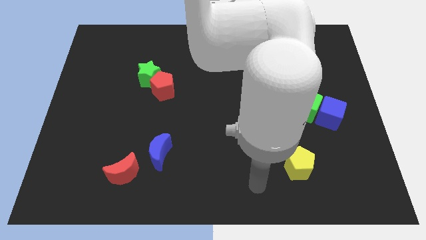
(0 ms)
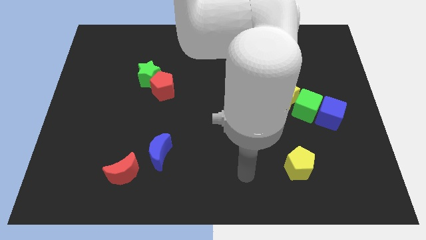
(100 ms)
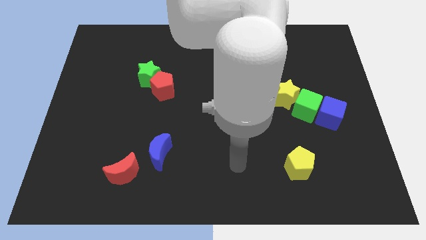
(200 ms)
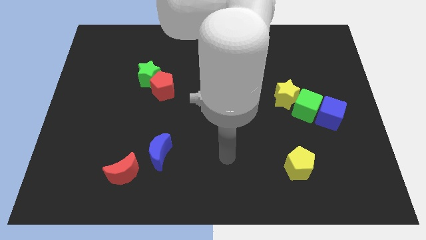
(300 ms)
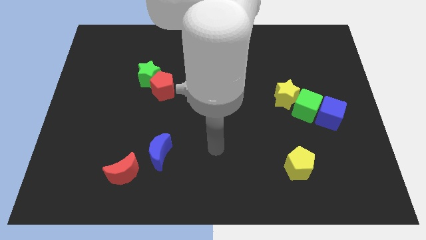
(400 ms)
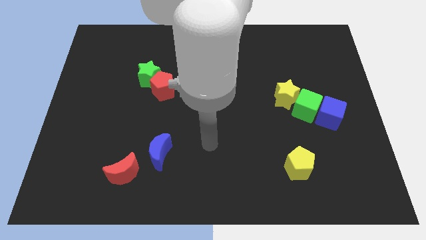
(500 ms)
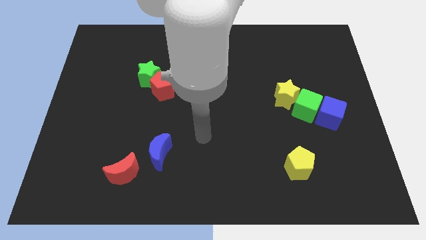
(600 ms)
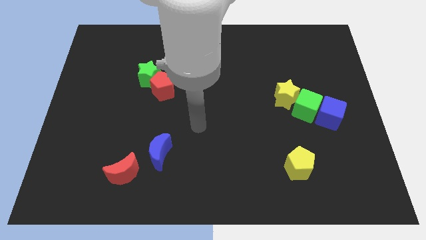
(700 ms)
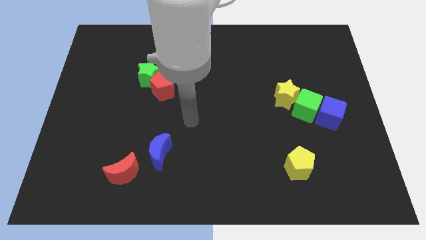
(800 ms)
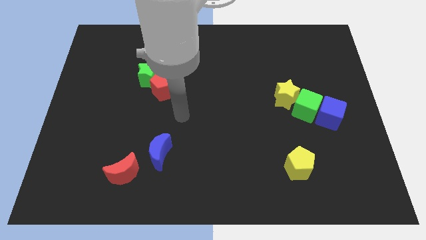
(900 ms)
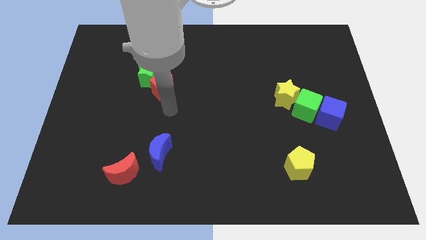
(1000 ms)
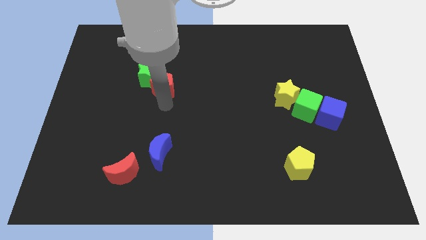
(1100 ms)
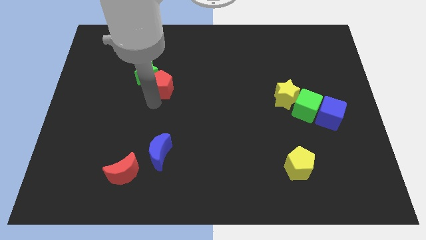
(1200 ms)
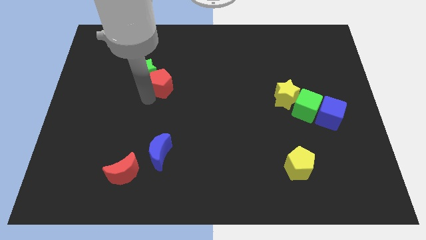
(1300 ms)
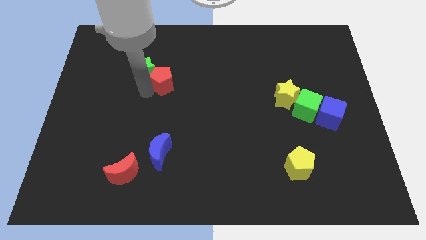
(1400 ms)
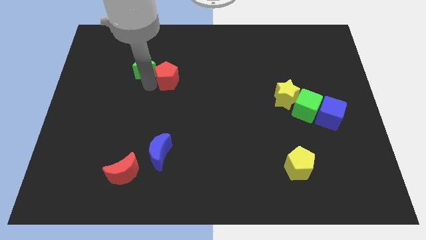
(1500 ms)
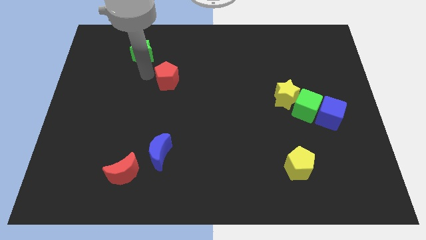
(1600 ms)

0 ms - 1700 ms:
move the red pentagon away from the green star

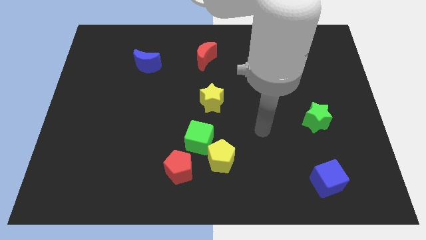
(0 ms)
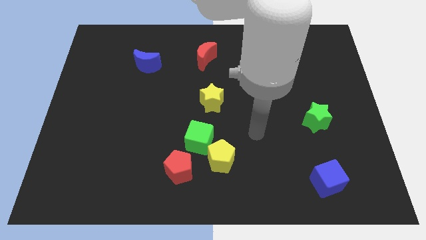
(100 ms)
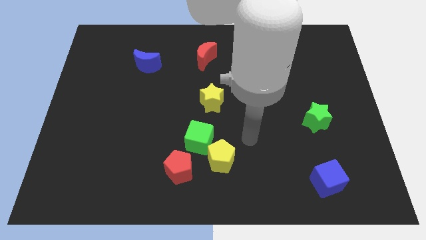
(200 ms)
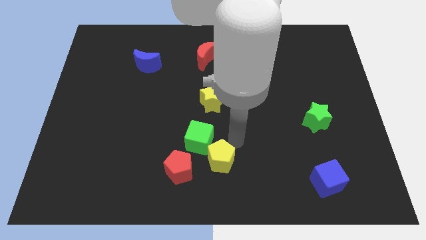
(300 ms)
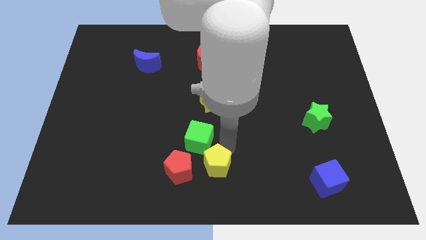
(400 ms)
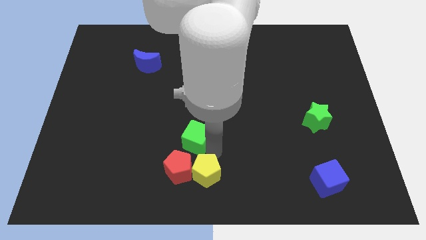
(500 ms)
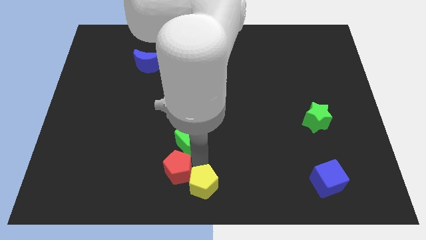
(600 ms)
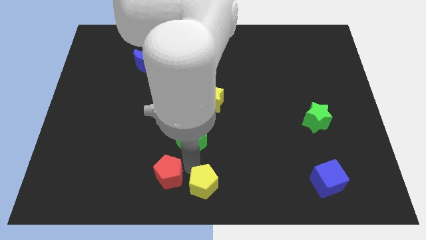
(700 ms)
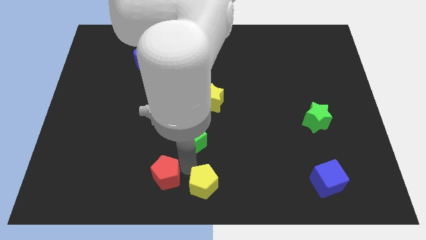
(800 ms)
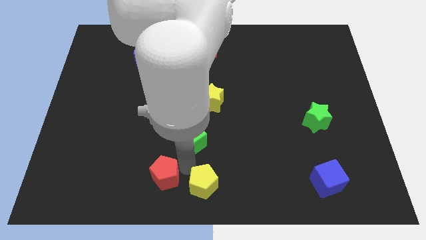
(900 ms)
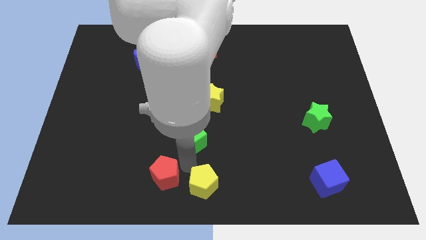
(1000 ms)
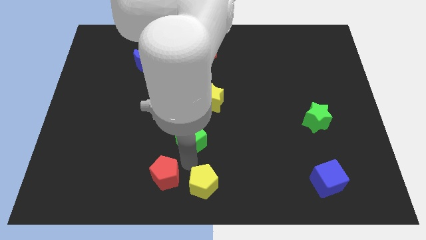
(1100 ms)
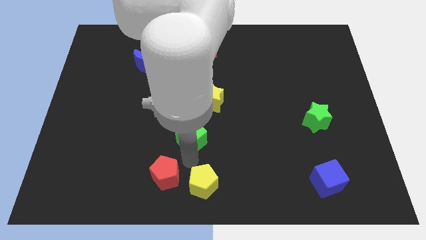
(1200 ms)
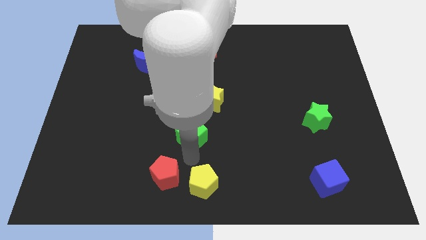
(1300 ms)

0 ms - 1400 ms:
move the green cube away from the yellow pentagon and red pentagon

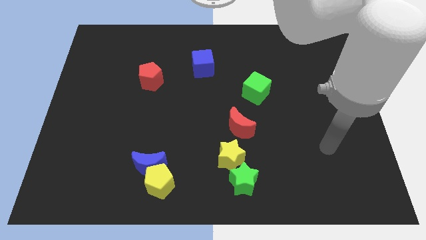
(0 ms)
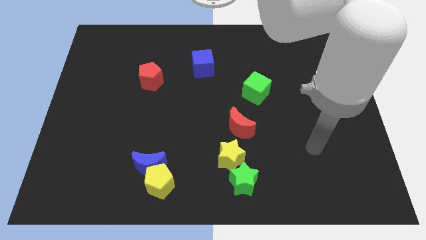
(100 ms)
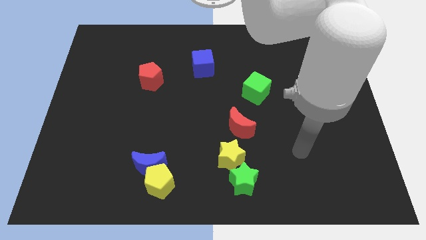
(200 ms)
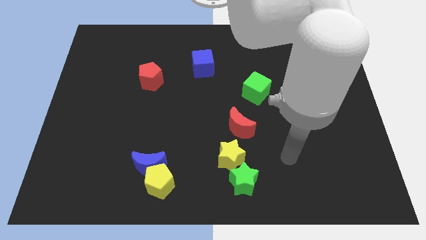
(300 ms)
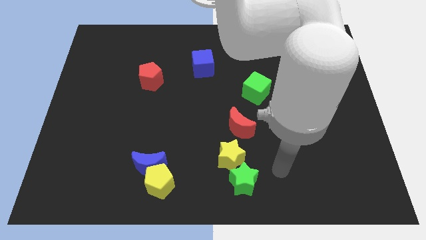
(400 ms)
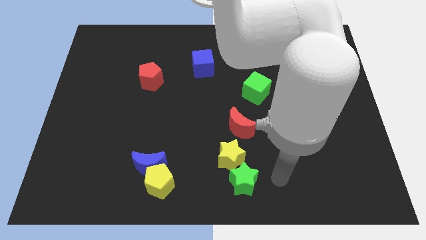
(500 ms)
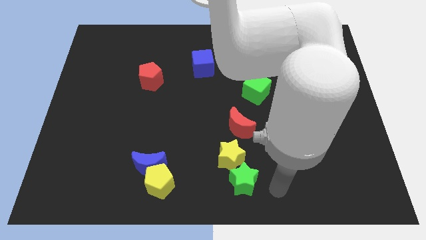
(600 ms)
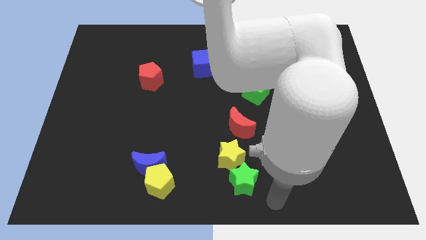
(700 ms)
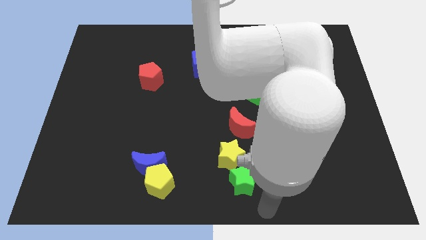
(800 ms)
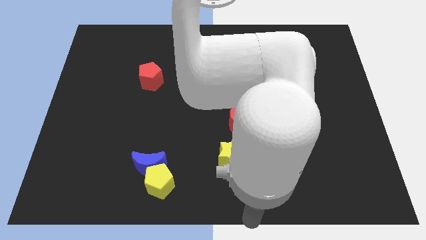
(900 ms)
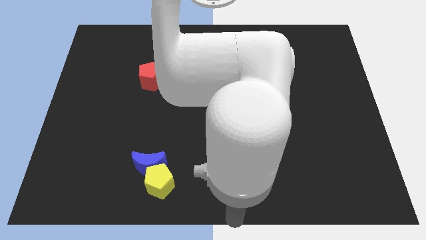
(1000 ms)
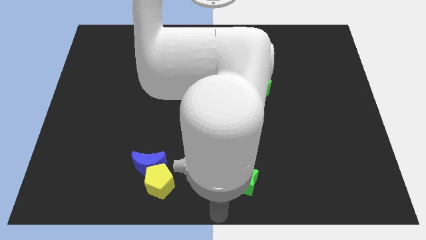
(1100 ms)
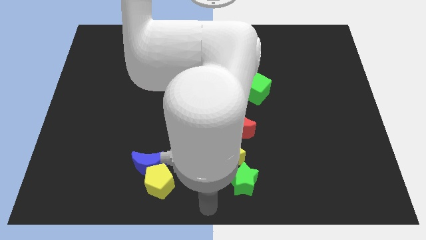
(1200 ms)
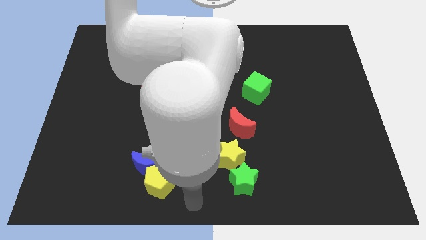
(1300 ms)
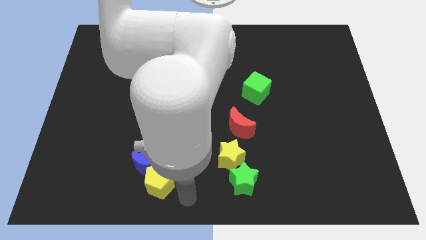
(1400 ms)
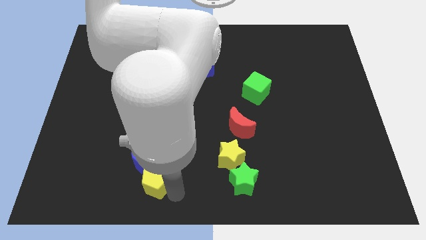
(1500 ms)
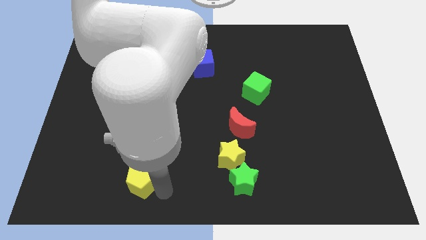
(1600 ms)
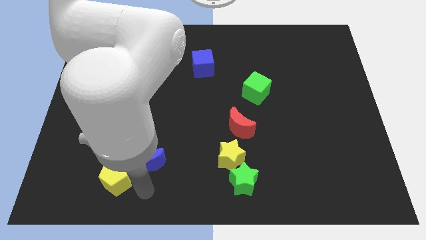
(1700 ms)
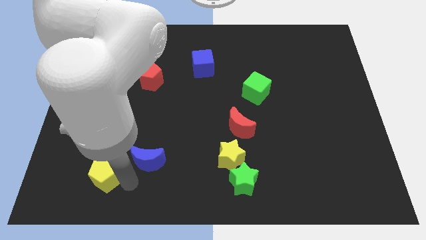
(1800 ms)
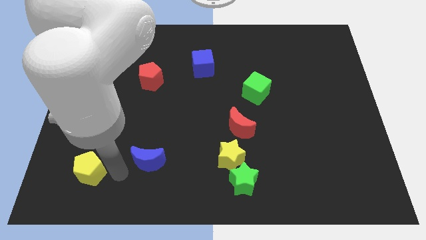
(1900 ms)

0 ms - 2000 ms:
move the blue moon away from the yellow pentagon

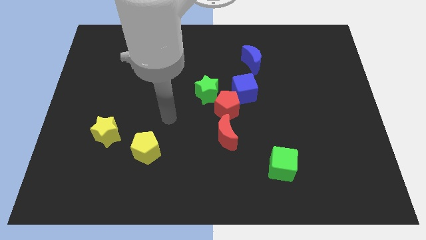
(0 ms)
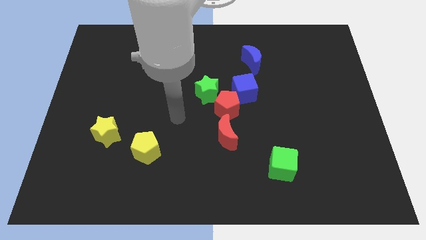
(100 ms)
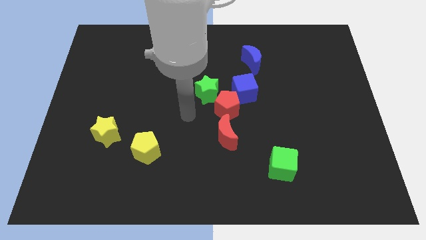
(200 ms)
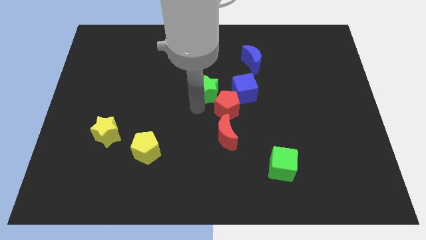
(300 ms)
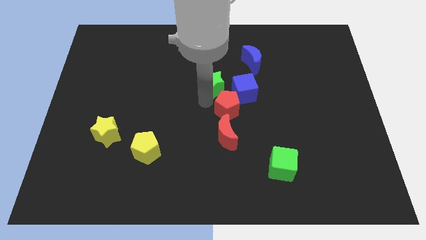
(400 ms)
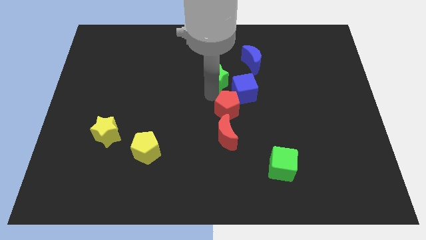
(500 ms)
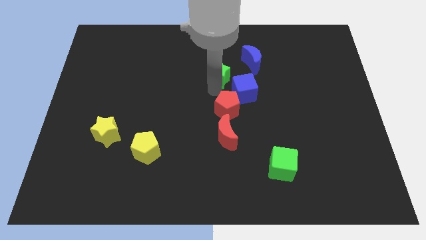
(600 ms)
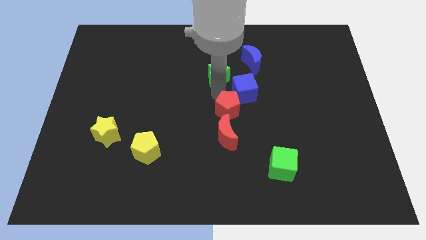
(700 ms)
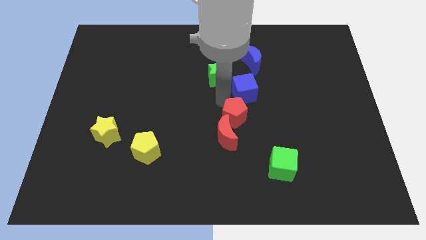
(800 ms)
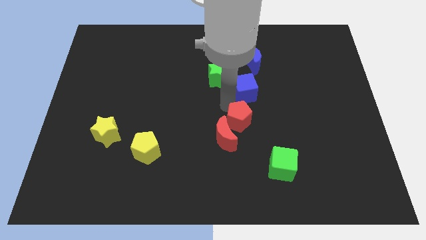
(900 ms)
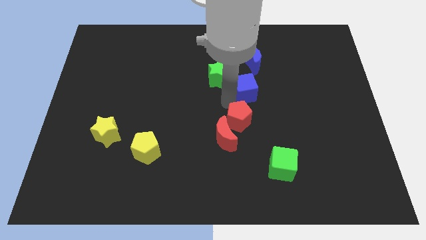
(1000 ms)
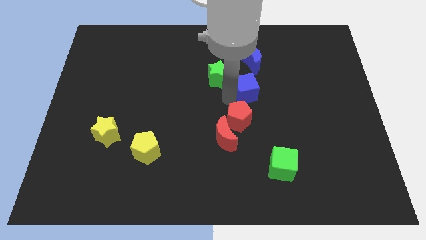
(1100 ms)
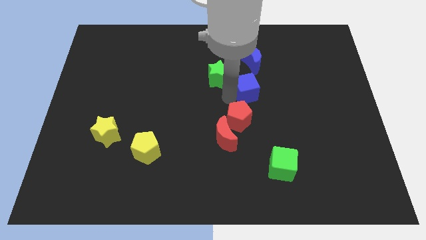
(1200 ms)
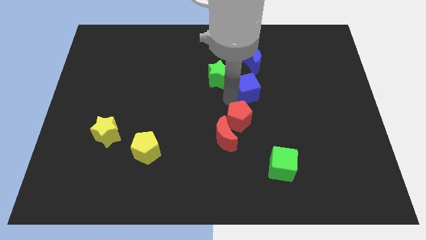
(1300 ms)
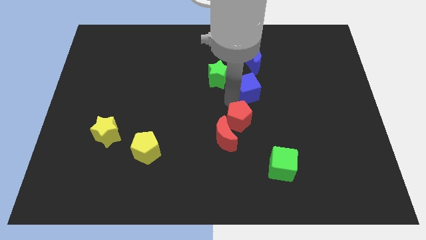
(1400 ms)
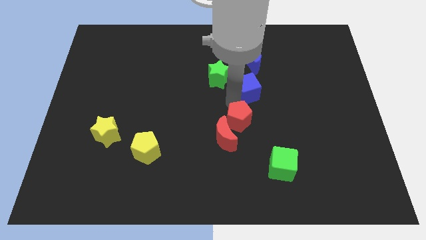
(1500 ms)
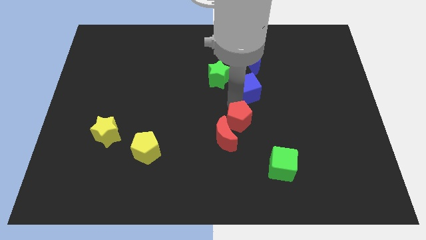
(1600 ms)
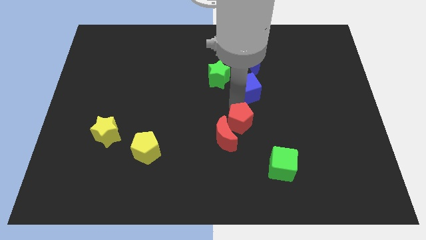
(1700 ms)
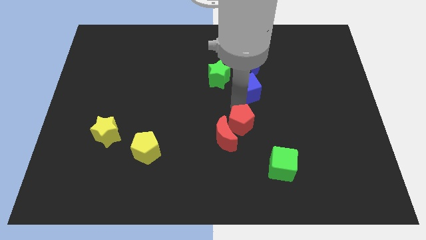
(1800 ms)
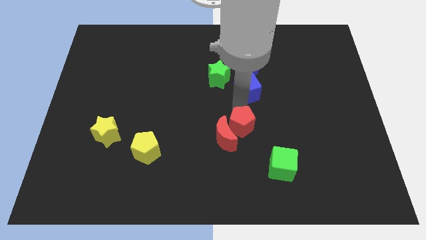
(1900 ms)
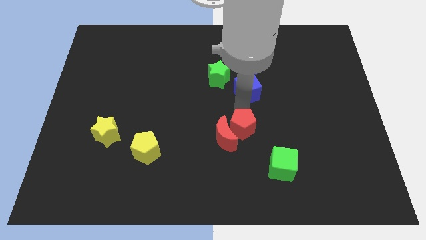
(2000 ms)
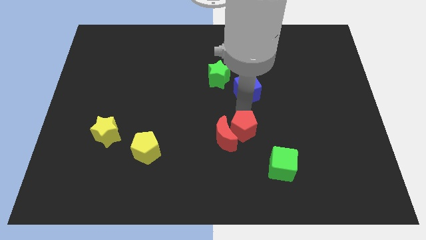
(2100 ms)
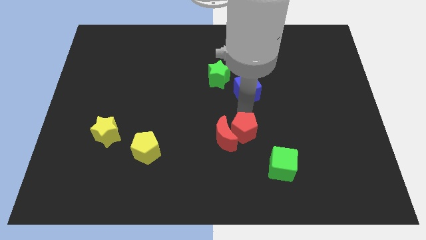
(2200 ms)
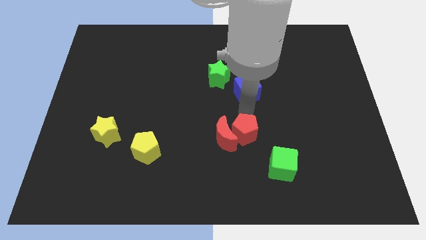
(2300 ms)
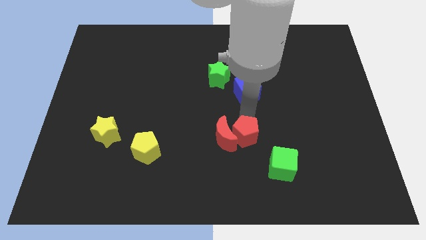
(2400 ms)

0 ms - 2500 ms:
move the red pentagon away from the group

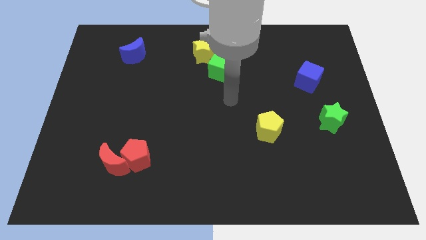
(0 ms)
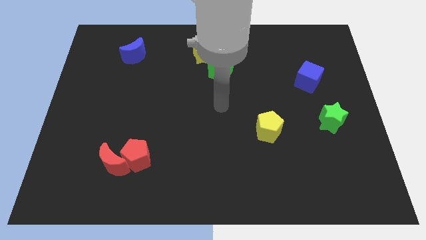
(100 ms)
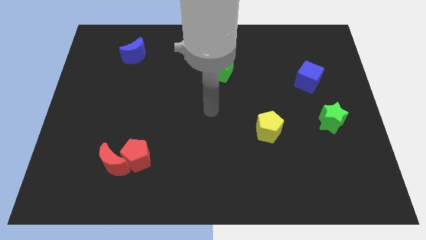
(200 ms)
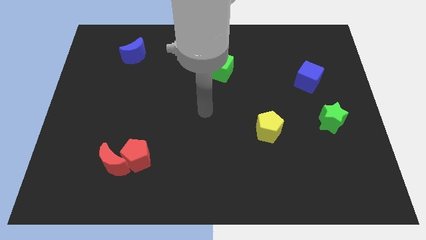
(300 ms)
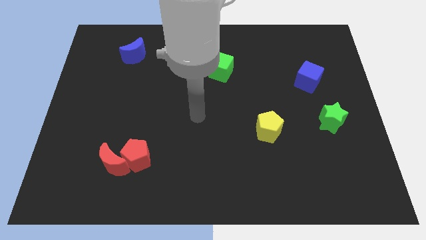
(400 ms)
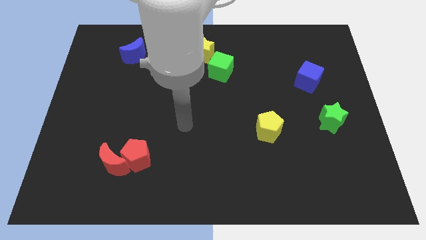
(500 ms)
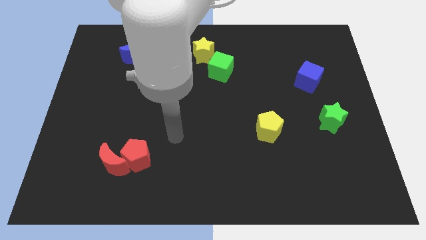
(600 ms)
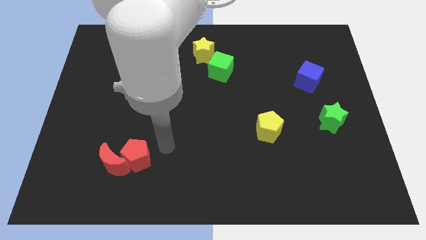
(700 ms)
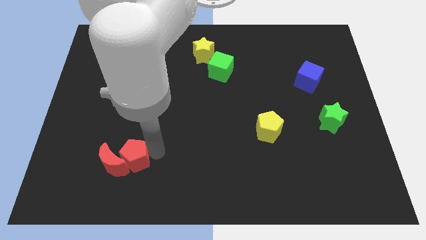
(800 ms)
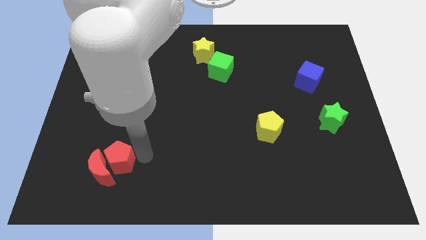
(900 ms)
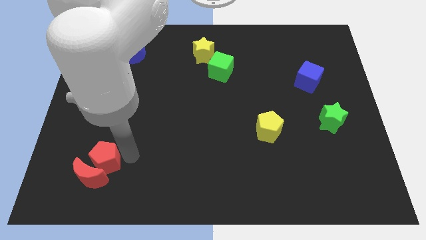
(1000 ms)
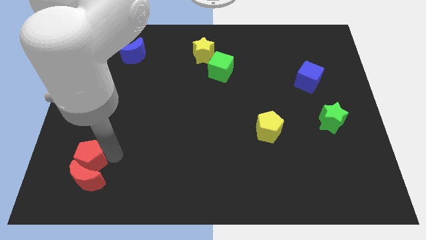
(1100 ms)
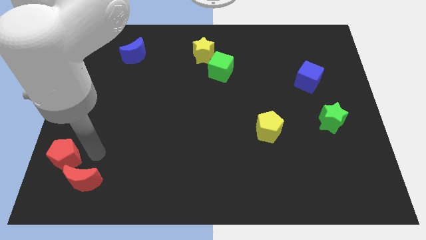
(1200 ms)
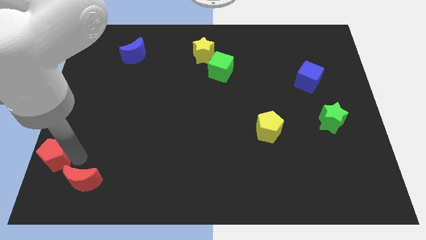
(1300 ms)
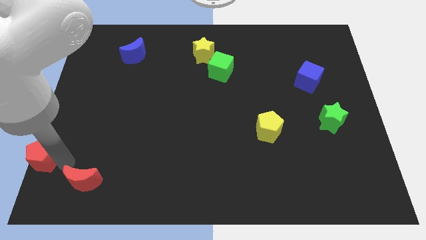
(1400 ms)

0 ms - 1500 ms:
move the red moon away from the red pentagon

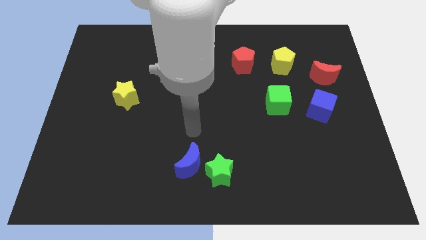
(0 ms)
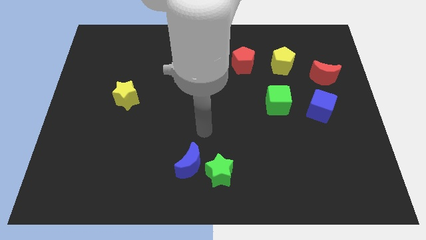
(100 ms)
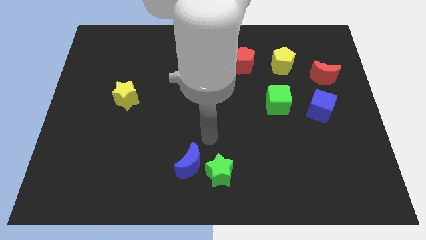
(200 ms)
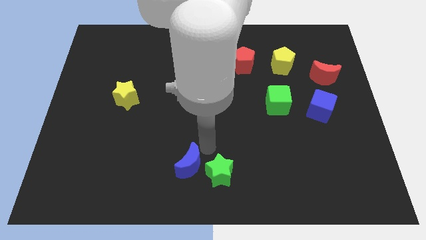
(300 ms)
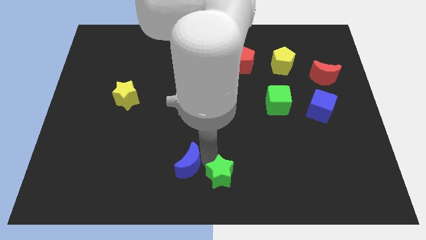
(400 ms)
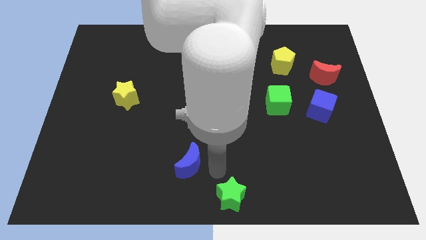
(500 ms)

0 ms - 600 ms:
separate the blue moon from the green star
